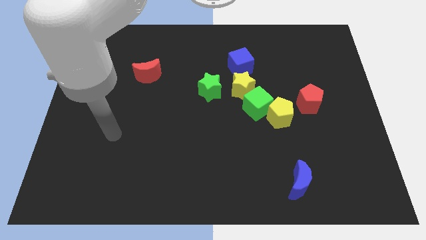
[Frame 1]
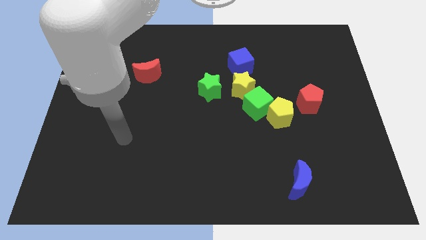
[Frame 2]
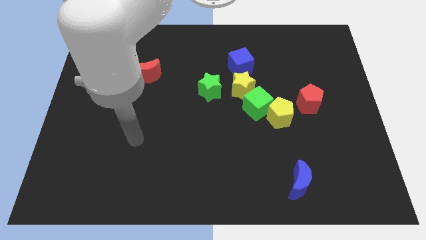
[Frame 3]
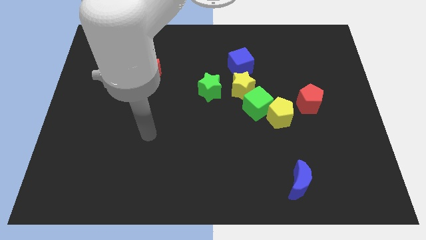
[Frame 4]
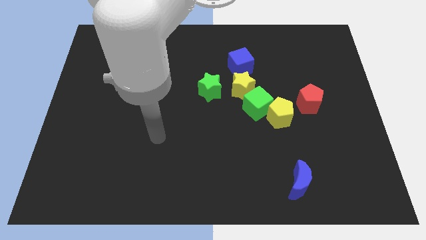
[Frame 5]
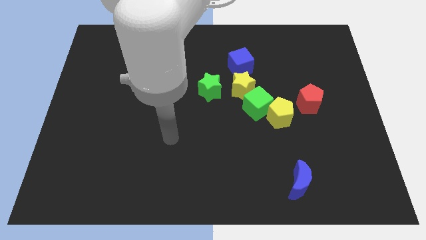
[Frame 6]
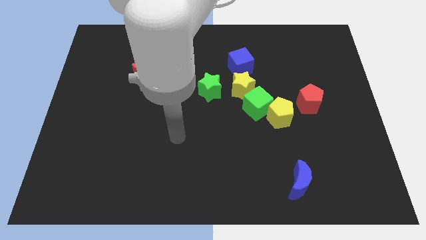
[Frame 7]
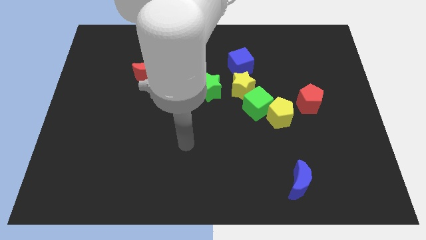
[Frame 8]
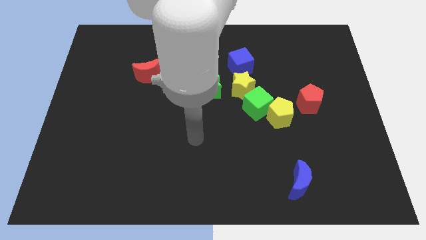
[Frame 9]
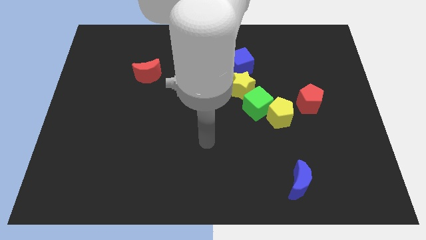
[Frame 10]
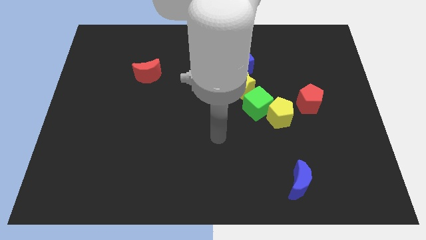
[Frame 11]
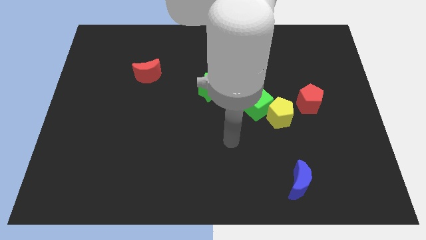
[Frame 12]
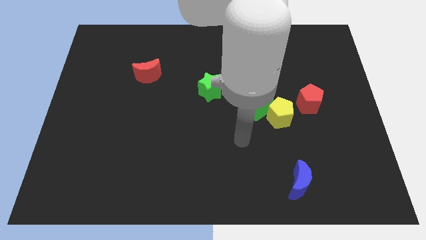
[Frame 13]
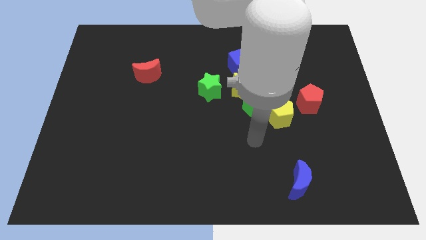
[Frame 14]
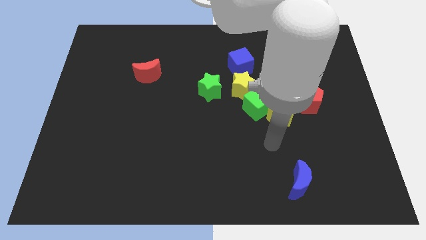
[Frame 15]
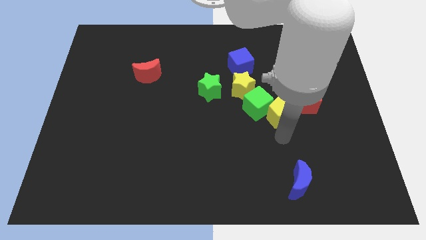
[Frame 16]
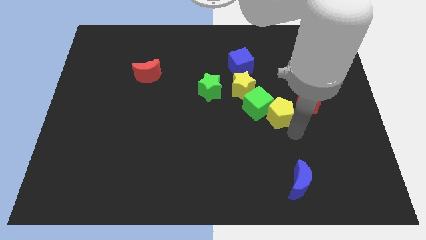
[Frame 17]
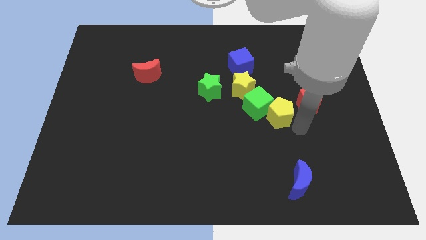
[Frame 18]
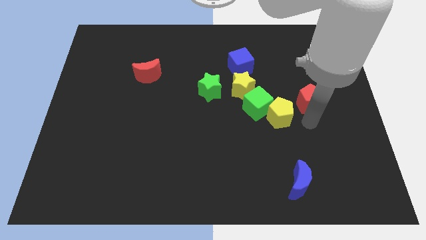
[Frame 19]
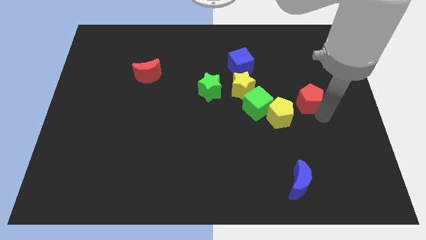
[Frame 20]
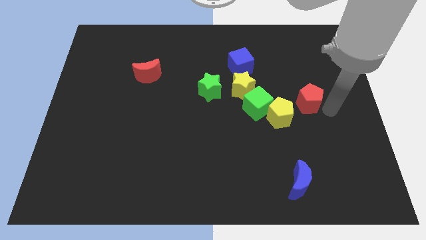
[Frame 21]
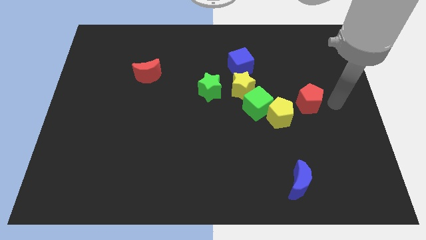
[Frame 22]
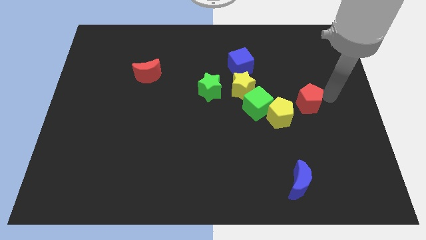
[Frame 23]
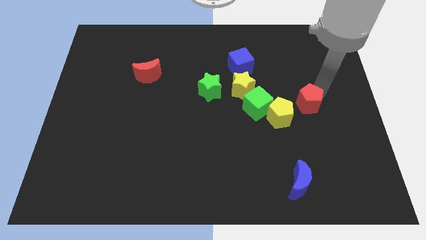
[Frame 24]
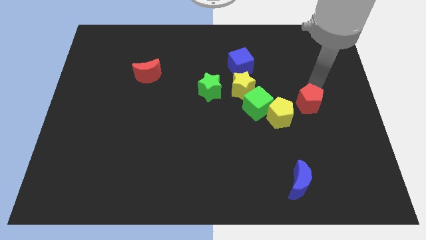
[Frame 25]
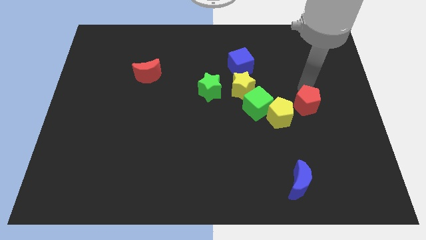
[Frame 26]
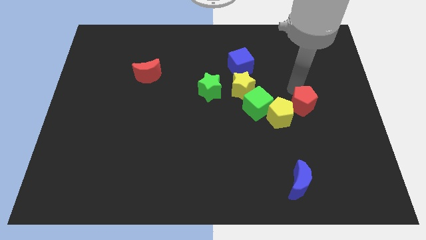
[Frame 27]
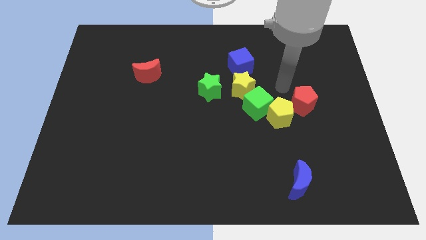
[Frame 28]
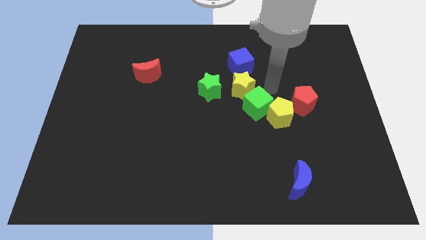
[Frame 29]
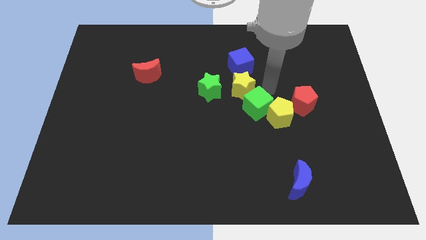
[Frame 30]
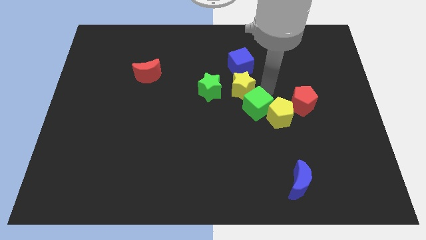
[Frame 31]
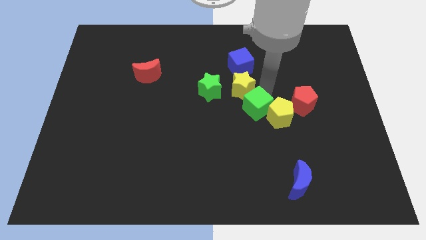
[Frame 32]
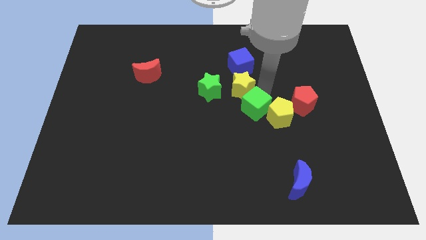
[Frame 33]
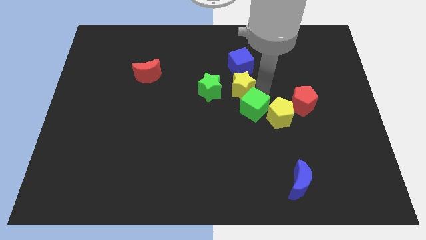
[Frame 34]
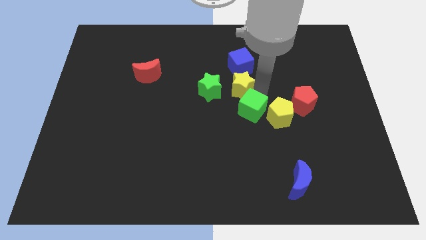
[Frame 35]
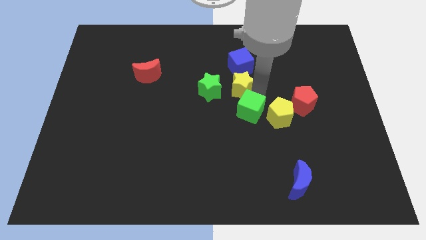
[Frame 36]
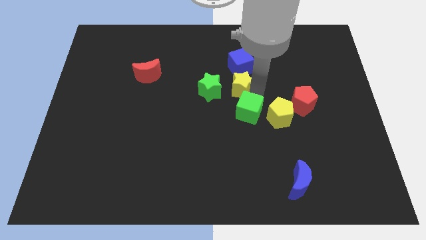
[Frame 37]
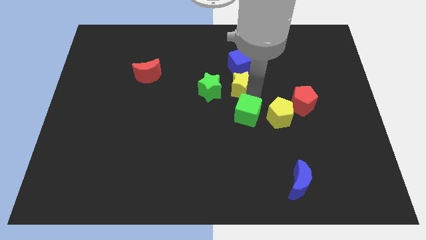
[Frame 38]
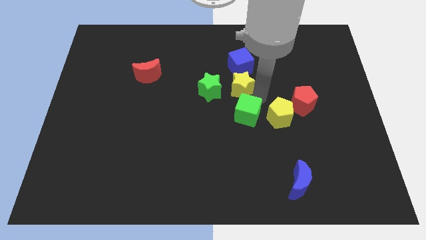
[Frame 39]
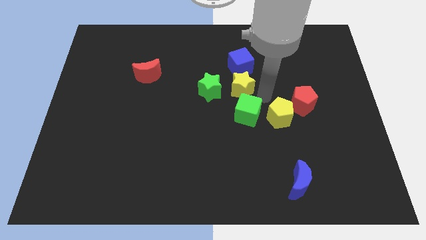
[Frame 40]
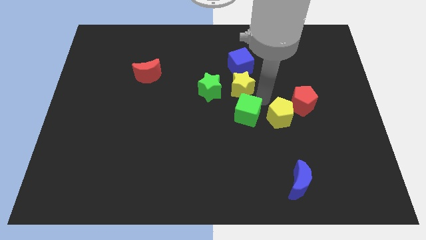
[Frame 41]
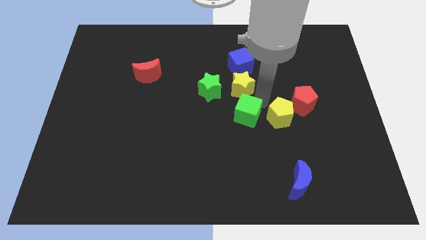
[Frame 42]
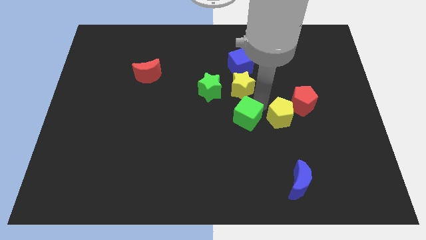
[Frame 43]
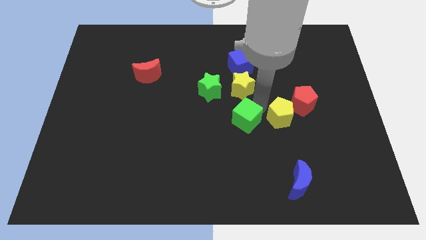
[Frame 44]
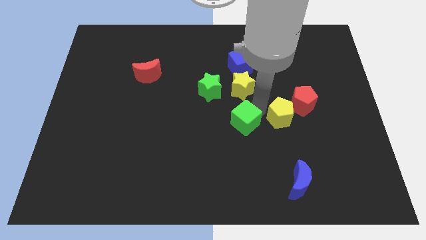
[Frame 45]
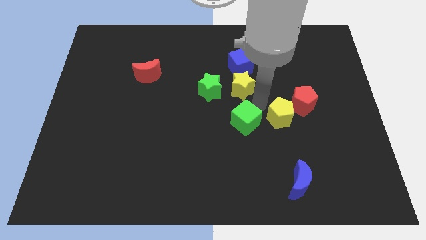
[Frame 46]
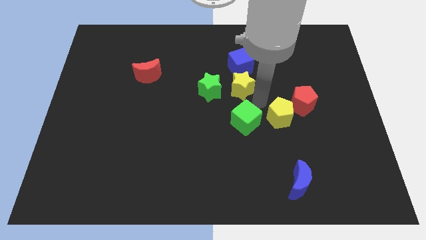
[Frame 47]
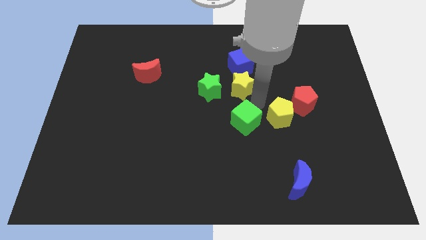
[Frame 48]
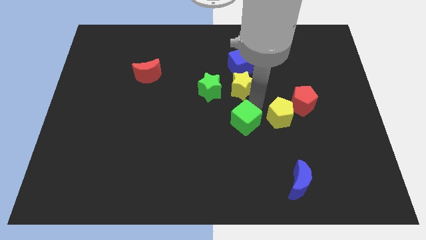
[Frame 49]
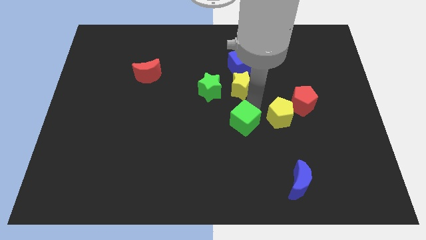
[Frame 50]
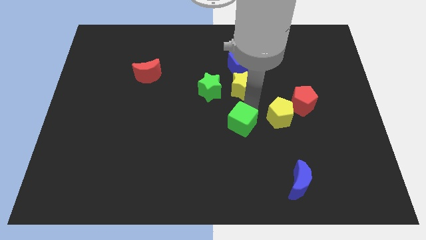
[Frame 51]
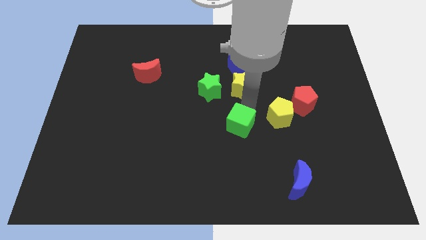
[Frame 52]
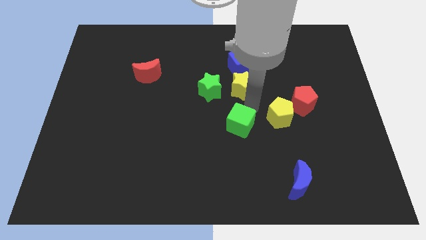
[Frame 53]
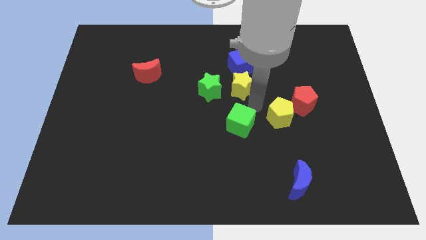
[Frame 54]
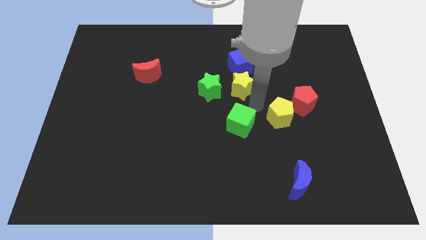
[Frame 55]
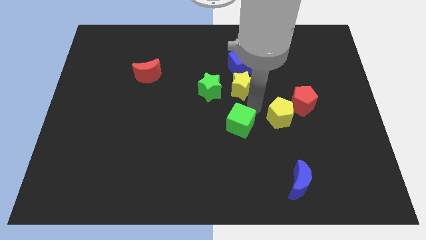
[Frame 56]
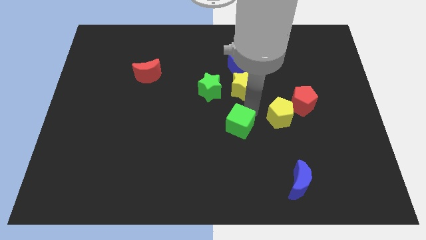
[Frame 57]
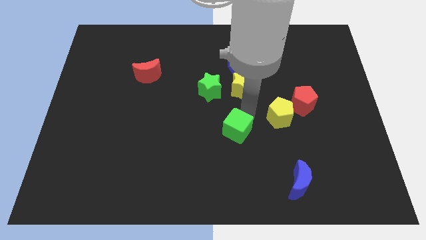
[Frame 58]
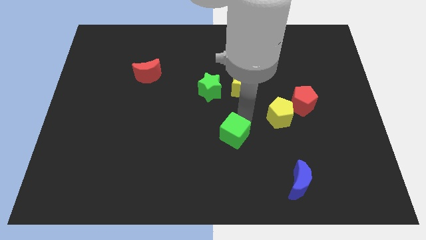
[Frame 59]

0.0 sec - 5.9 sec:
separate the green cube from the yellow pentagon and yellow star

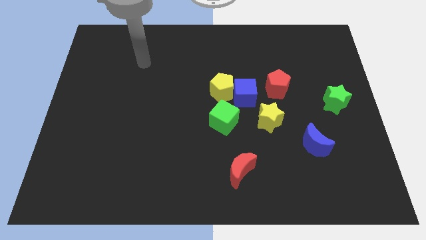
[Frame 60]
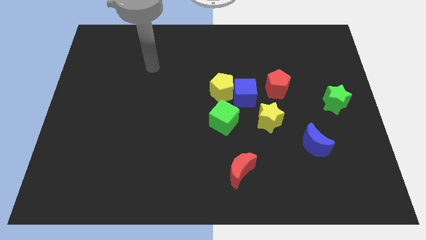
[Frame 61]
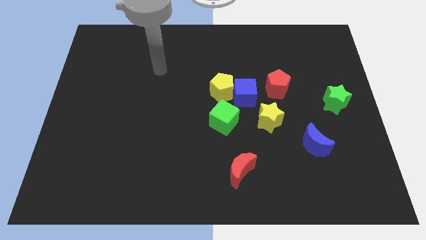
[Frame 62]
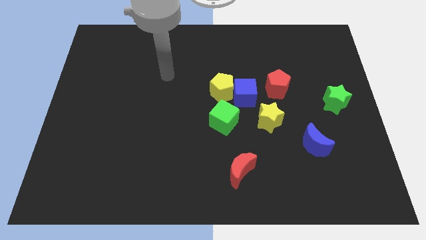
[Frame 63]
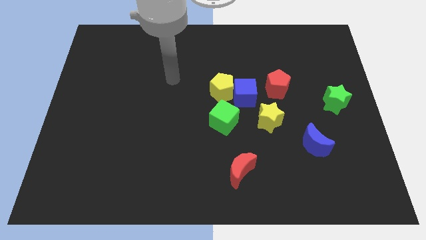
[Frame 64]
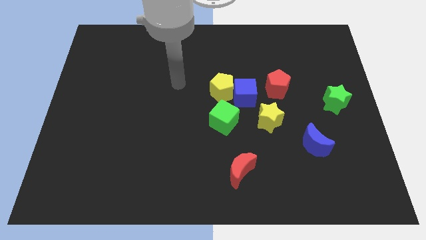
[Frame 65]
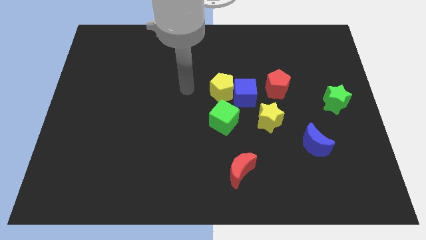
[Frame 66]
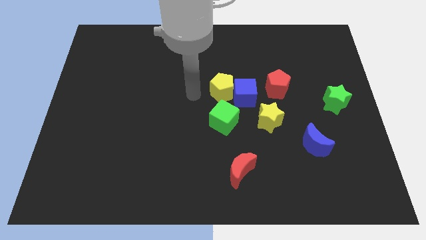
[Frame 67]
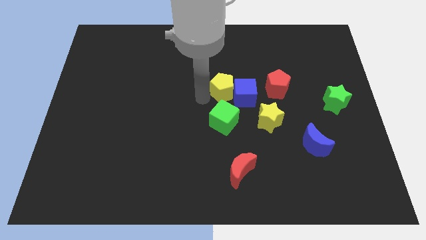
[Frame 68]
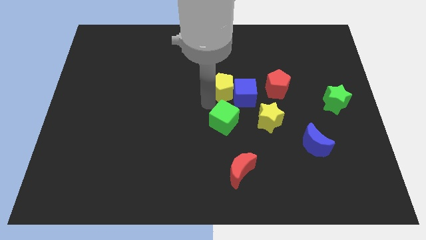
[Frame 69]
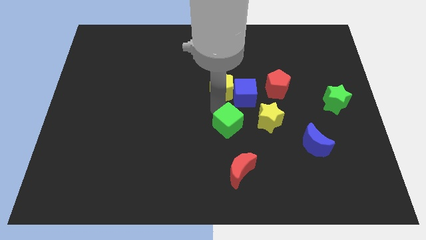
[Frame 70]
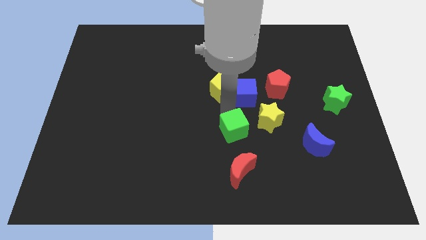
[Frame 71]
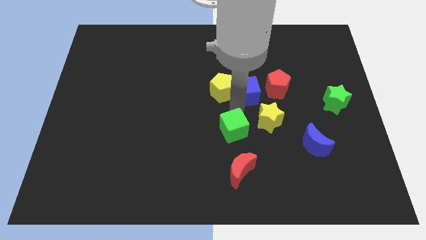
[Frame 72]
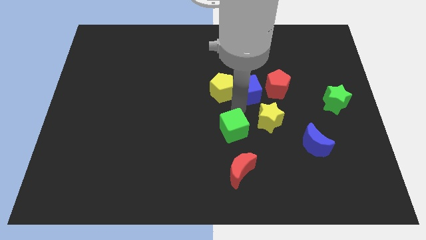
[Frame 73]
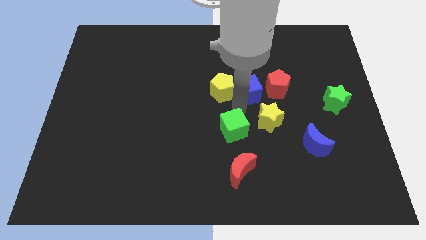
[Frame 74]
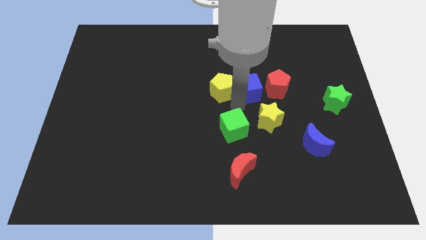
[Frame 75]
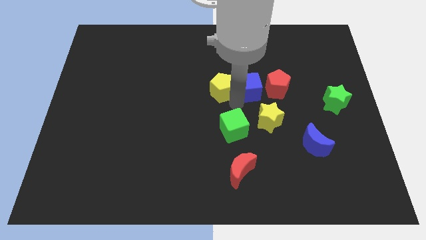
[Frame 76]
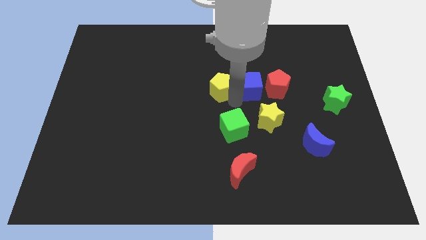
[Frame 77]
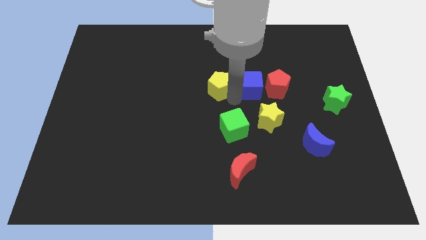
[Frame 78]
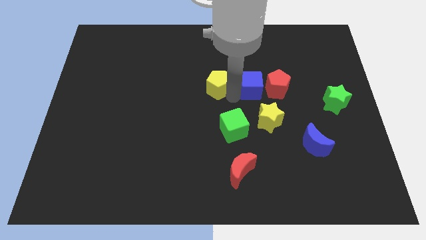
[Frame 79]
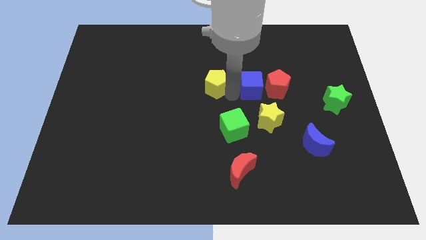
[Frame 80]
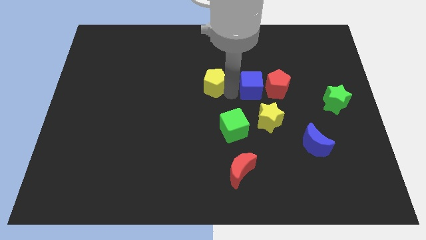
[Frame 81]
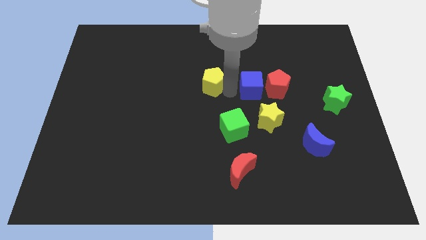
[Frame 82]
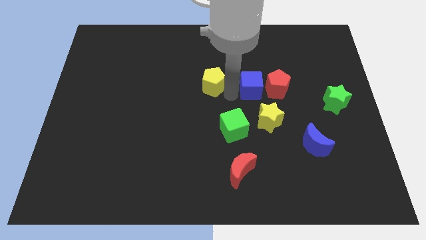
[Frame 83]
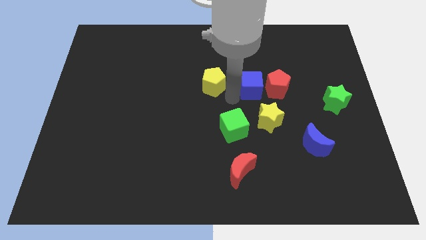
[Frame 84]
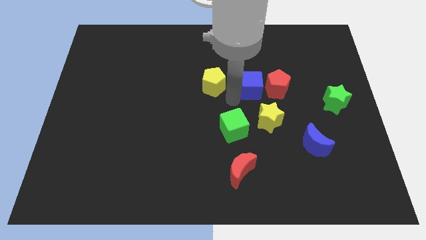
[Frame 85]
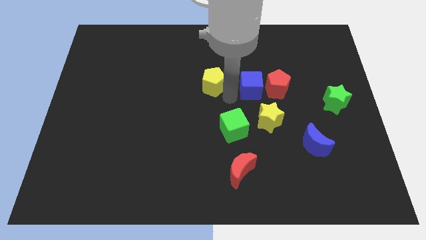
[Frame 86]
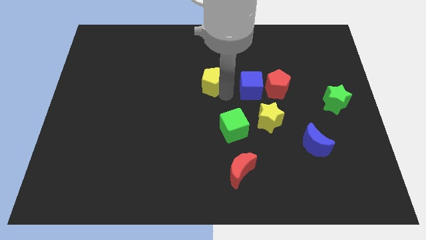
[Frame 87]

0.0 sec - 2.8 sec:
pull the yellow pentagon apart from the blue cube and green cube

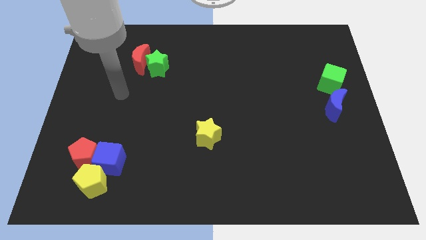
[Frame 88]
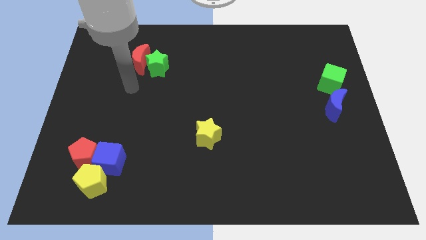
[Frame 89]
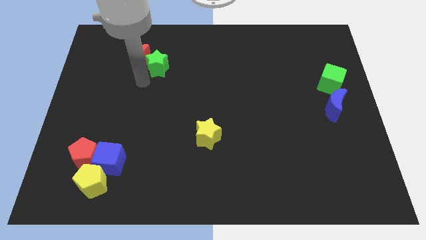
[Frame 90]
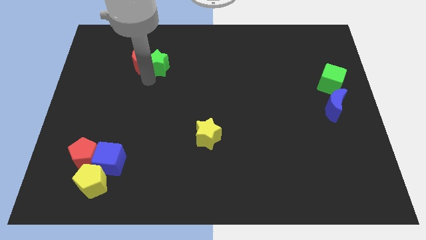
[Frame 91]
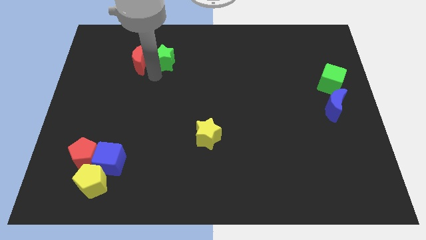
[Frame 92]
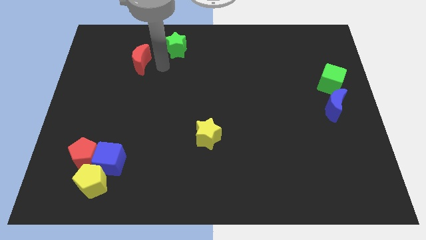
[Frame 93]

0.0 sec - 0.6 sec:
separate the red moon from the green star
